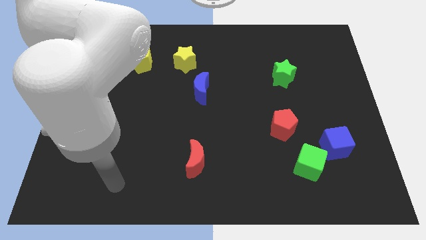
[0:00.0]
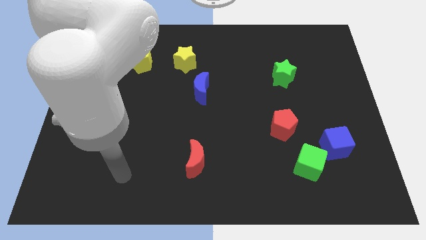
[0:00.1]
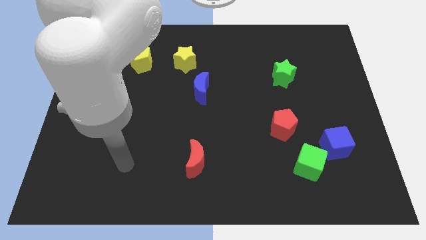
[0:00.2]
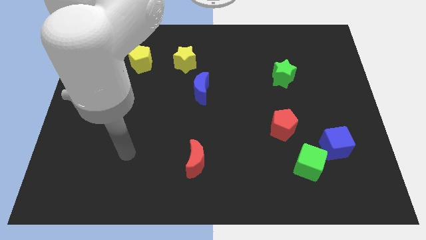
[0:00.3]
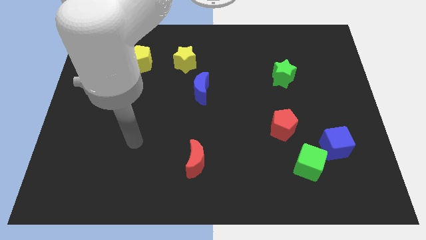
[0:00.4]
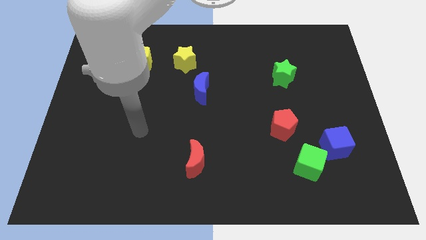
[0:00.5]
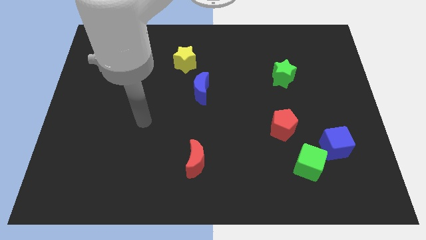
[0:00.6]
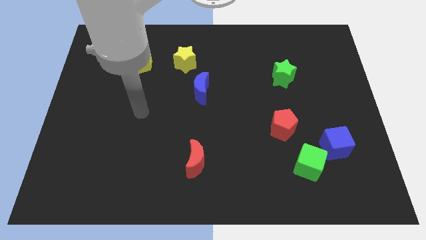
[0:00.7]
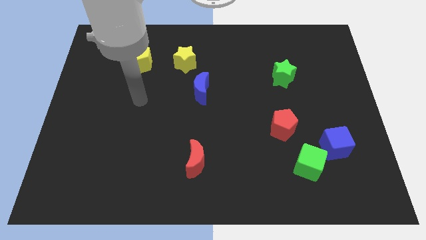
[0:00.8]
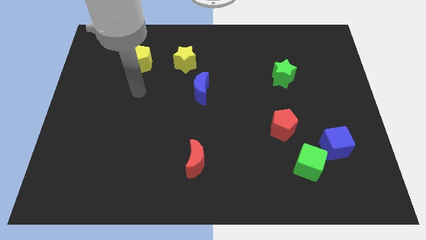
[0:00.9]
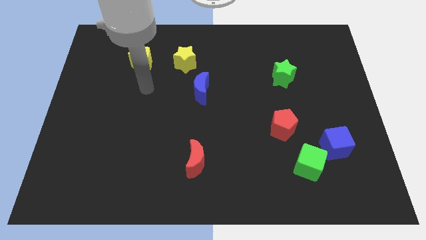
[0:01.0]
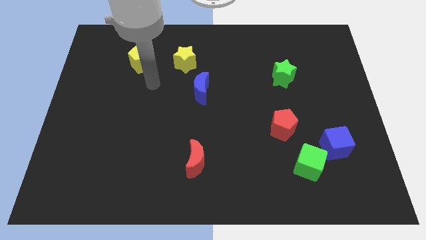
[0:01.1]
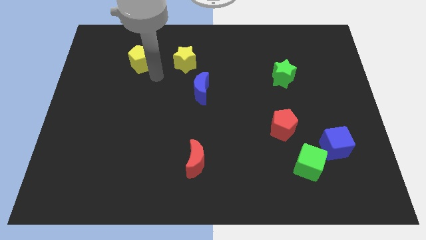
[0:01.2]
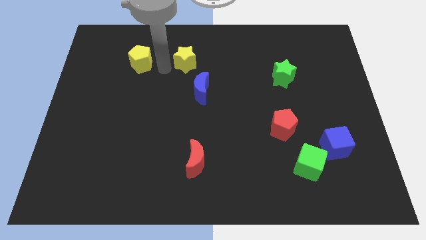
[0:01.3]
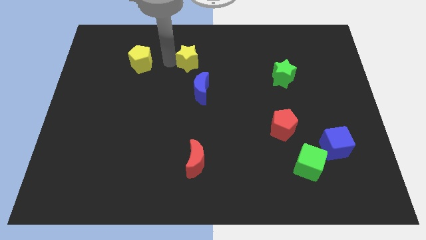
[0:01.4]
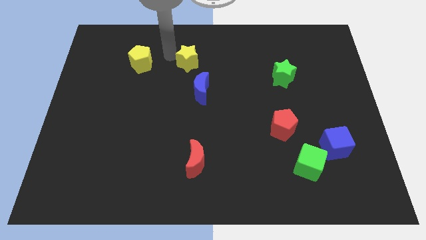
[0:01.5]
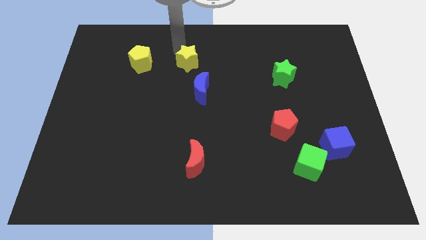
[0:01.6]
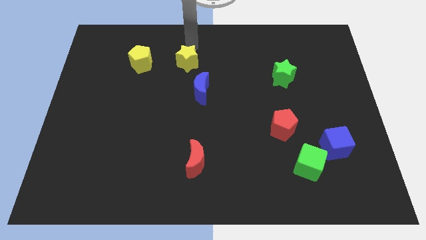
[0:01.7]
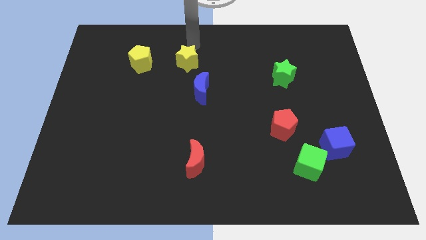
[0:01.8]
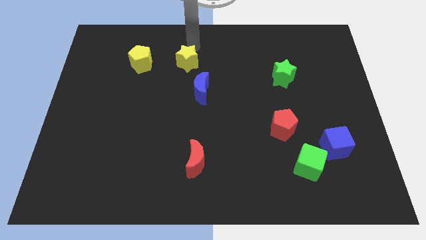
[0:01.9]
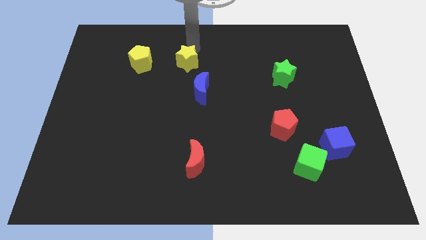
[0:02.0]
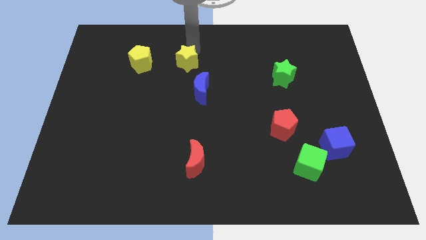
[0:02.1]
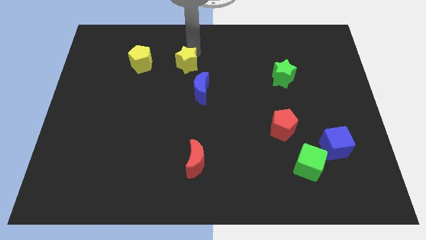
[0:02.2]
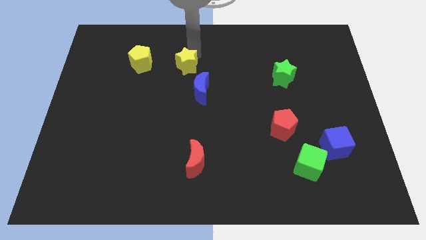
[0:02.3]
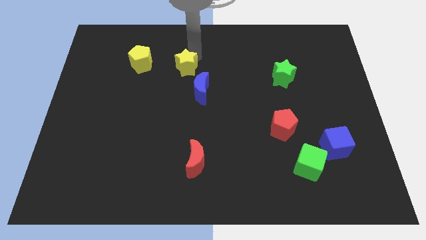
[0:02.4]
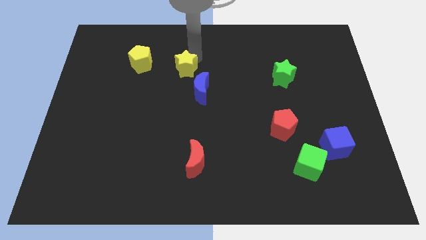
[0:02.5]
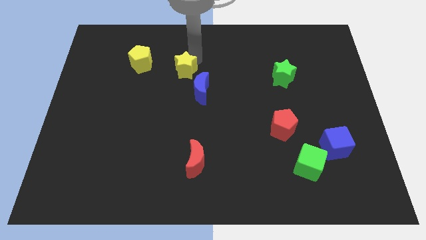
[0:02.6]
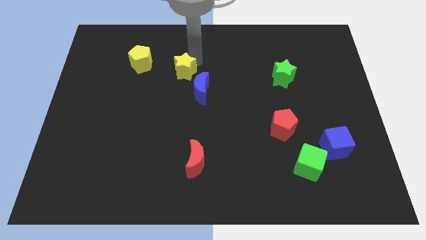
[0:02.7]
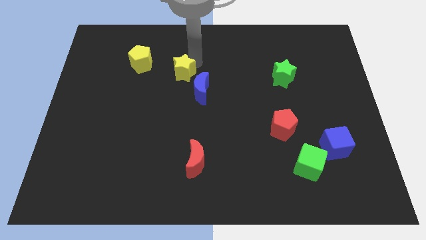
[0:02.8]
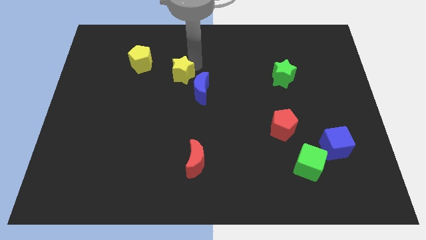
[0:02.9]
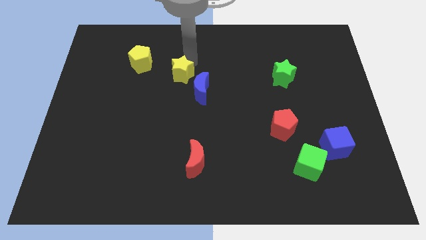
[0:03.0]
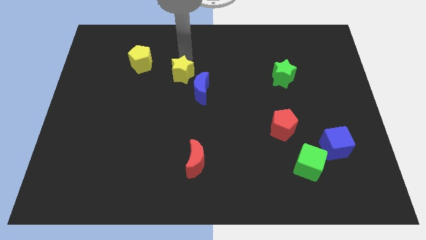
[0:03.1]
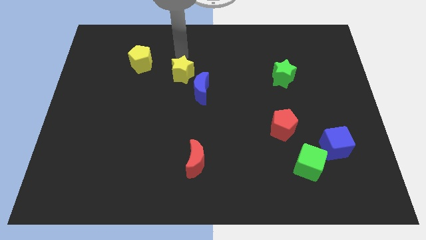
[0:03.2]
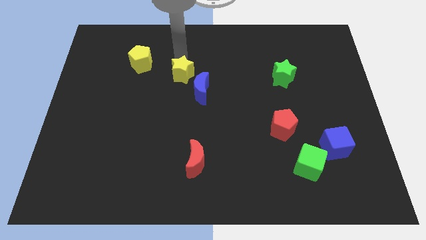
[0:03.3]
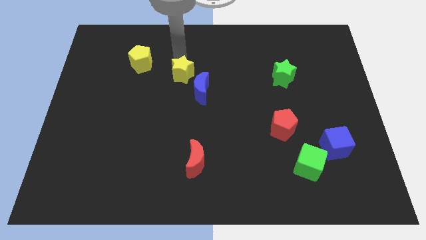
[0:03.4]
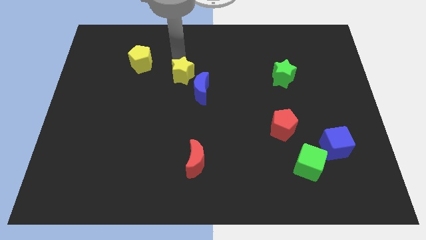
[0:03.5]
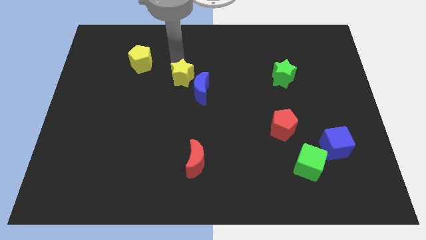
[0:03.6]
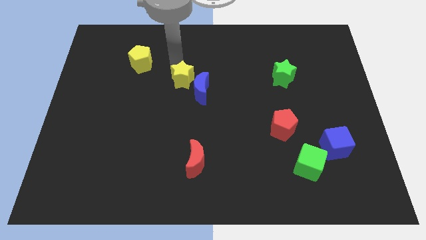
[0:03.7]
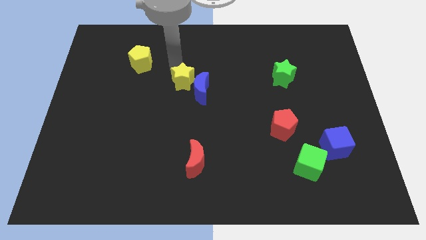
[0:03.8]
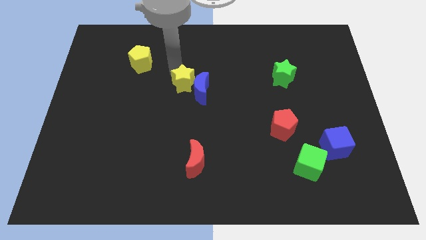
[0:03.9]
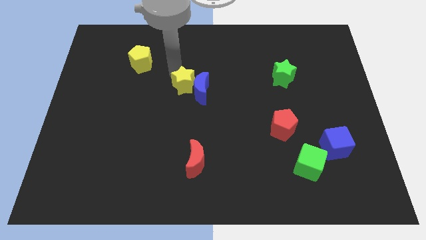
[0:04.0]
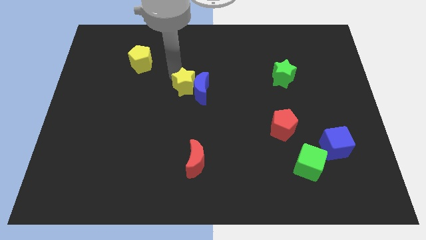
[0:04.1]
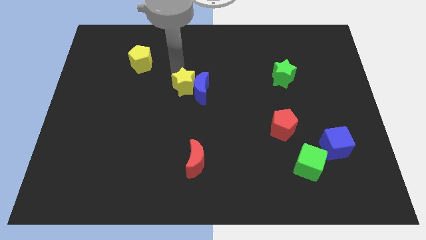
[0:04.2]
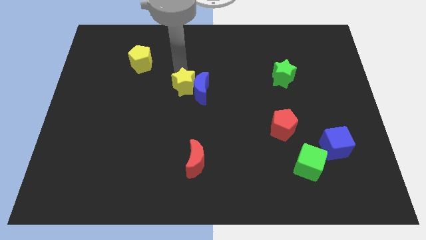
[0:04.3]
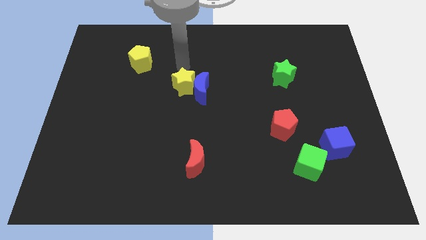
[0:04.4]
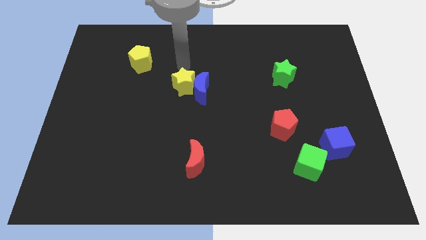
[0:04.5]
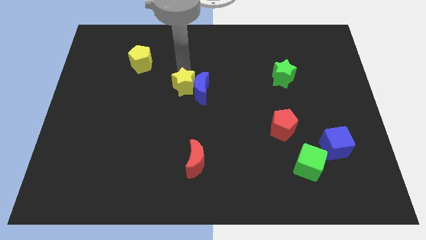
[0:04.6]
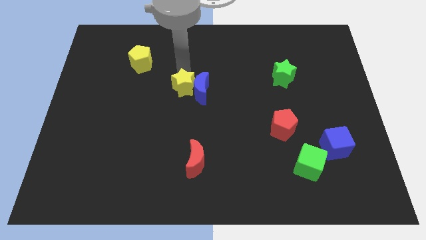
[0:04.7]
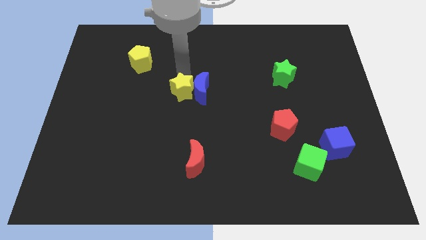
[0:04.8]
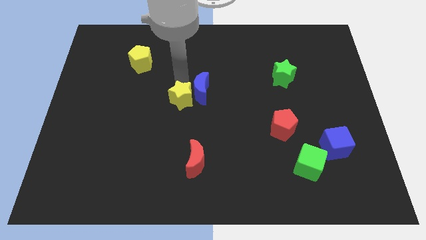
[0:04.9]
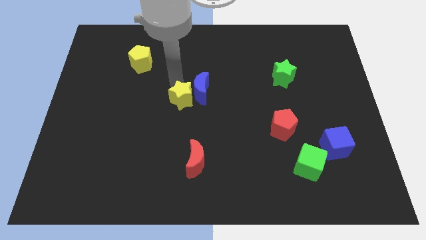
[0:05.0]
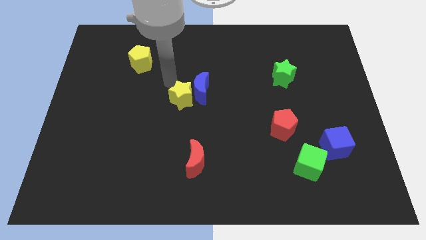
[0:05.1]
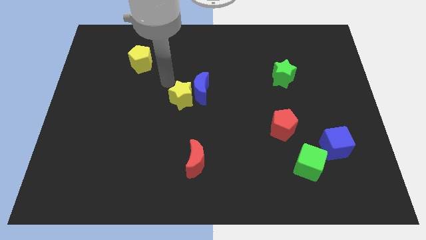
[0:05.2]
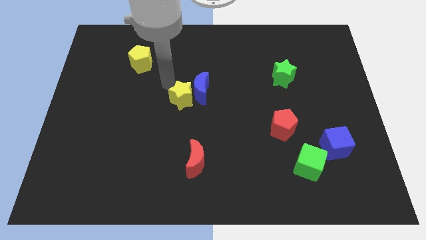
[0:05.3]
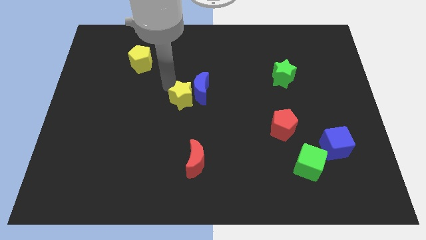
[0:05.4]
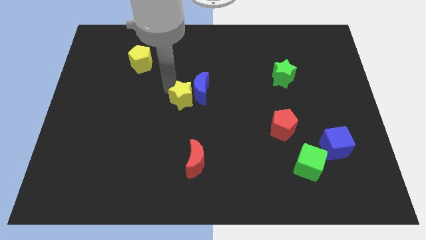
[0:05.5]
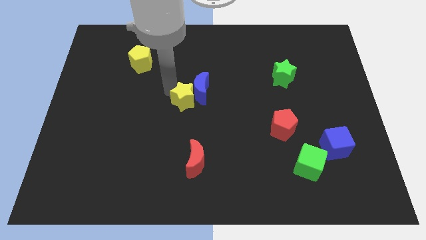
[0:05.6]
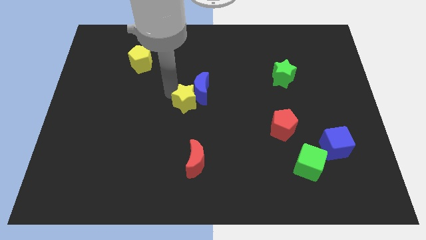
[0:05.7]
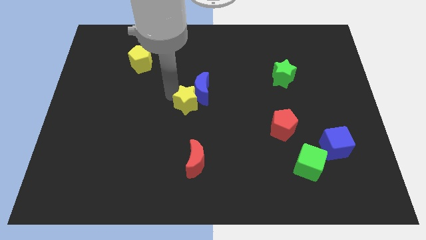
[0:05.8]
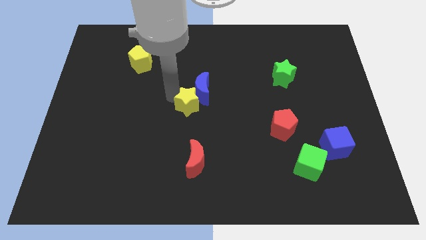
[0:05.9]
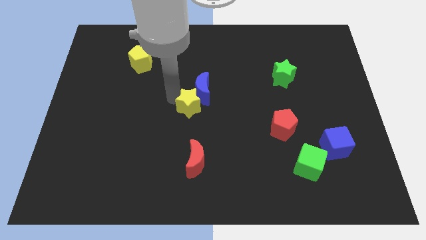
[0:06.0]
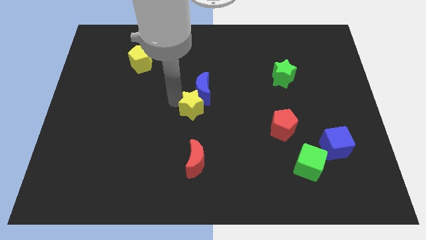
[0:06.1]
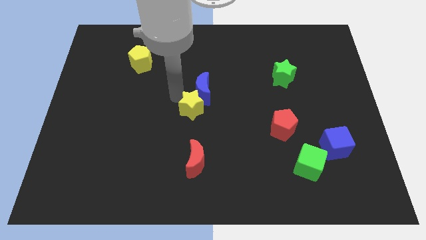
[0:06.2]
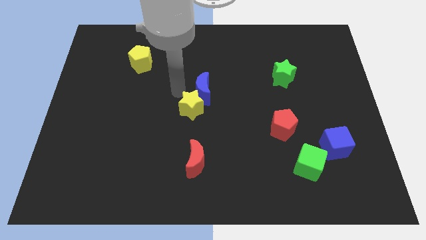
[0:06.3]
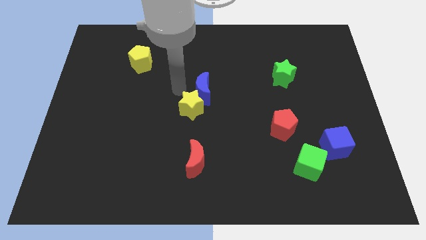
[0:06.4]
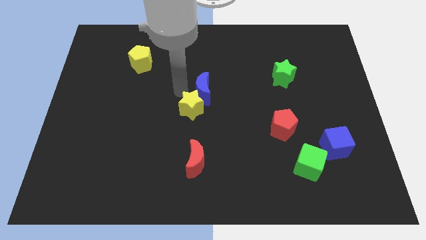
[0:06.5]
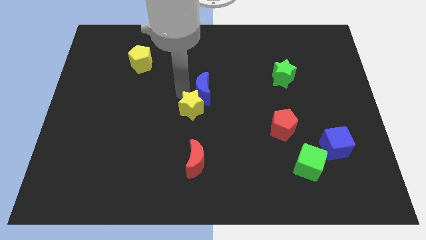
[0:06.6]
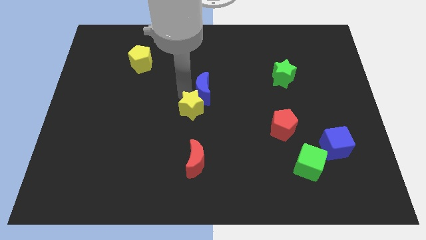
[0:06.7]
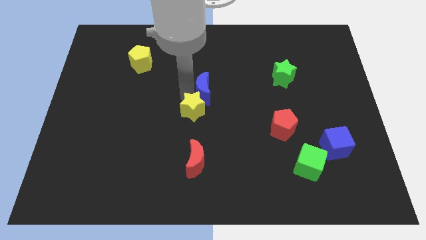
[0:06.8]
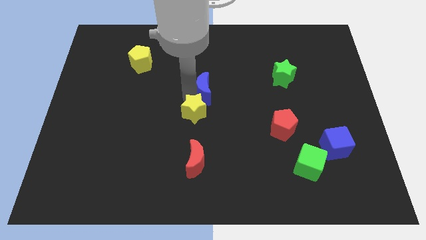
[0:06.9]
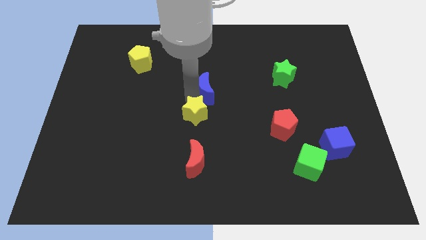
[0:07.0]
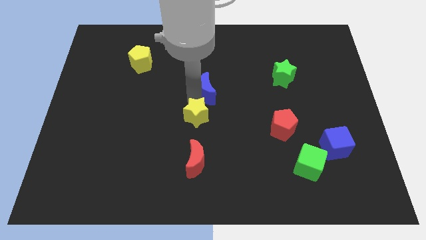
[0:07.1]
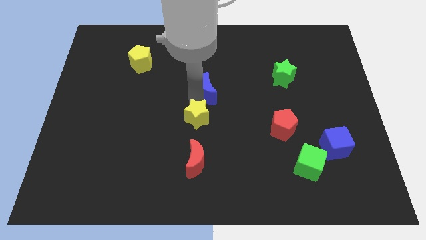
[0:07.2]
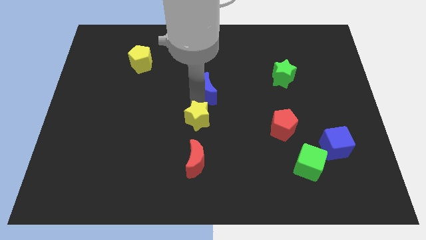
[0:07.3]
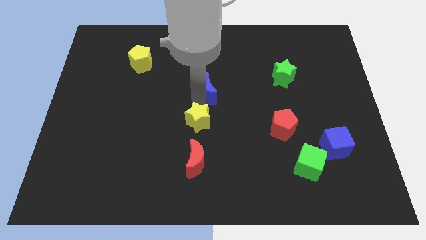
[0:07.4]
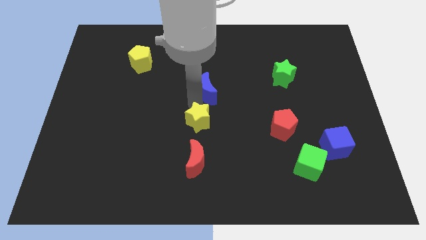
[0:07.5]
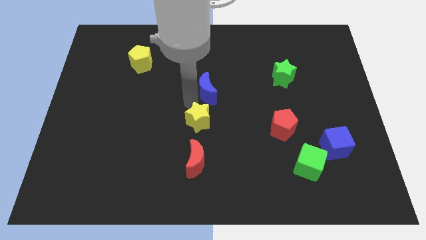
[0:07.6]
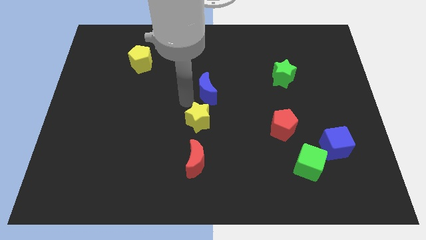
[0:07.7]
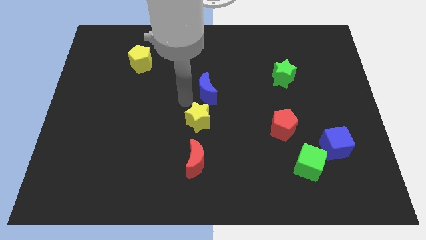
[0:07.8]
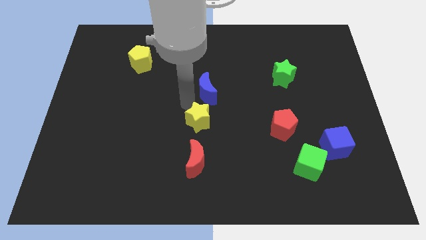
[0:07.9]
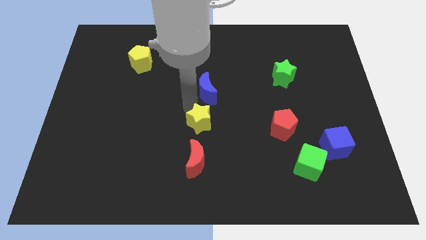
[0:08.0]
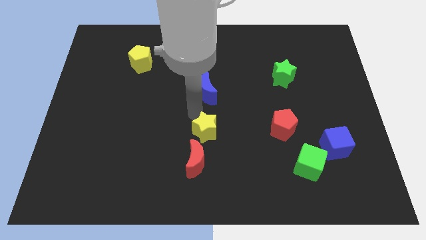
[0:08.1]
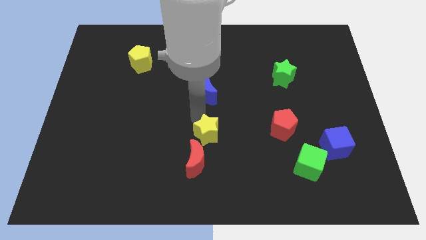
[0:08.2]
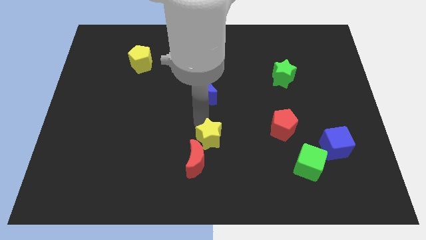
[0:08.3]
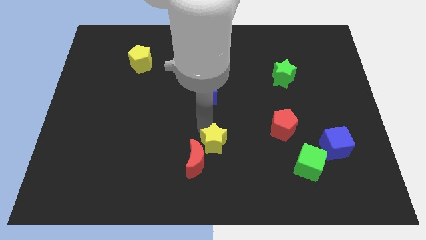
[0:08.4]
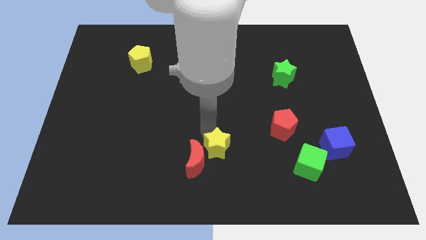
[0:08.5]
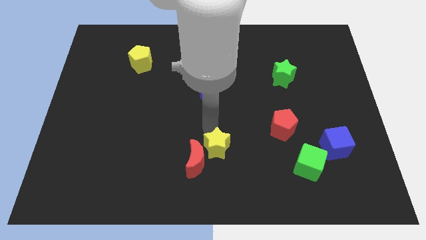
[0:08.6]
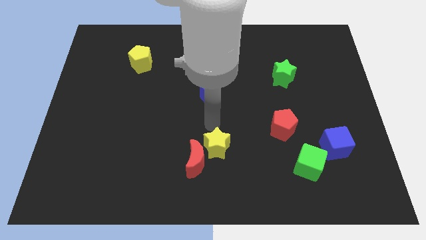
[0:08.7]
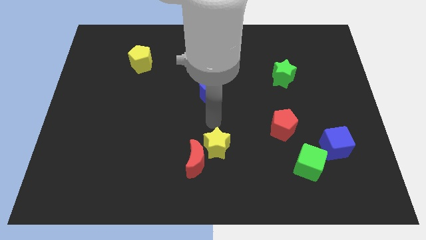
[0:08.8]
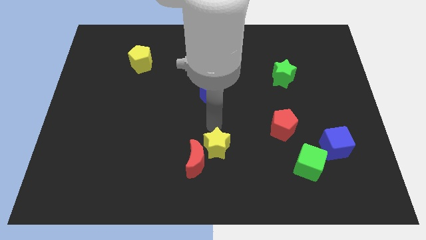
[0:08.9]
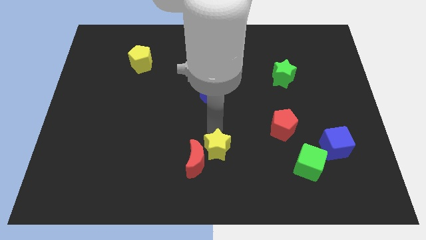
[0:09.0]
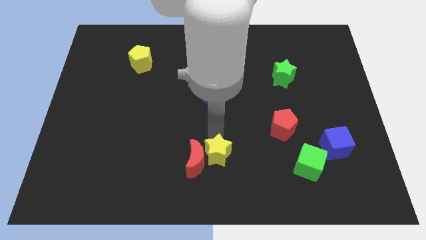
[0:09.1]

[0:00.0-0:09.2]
move the yellow star to the bottom
